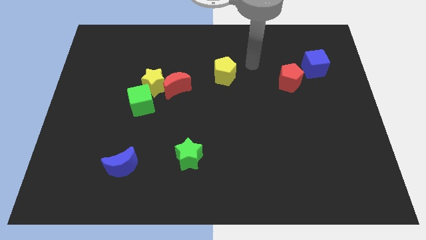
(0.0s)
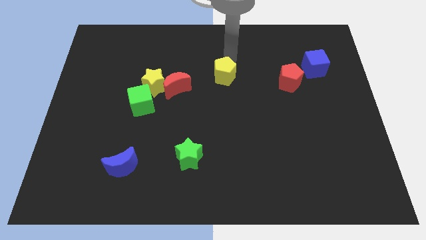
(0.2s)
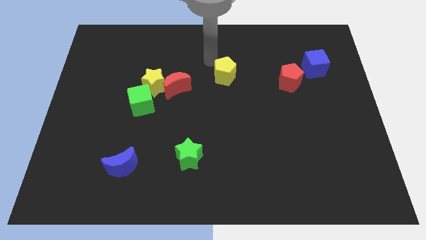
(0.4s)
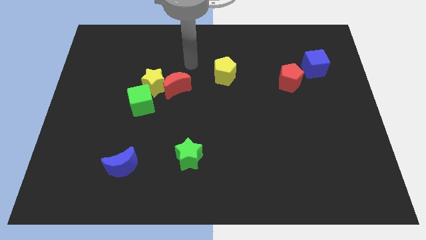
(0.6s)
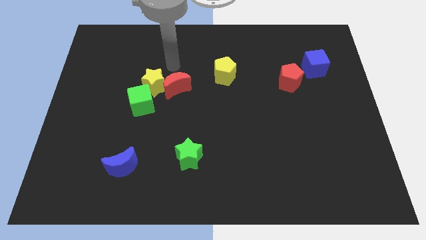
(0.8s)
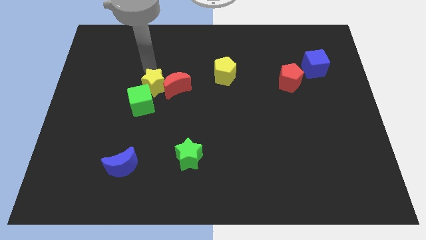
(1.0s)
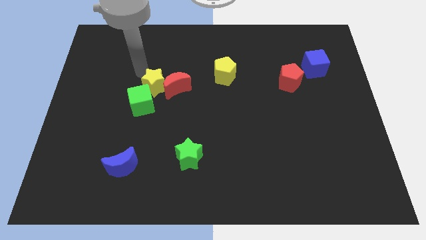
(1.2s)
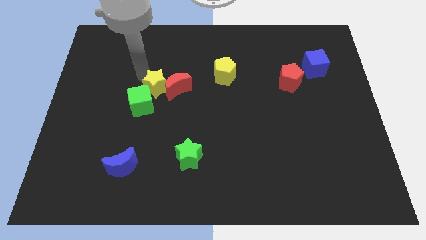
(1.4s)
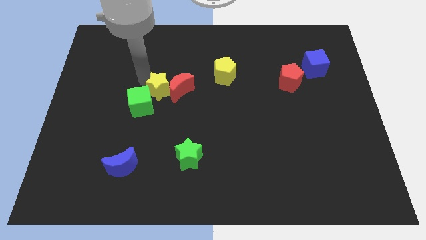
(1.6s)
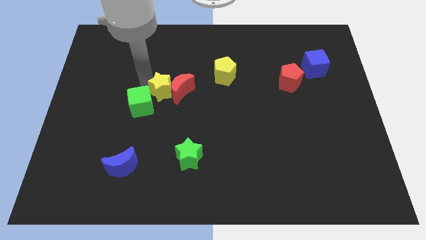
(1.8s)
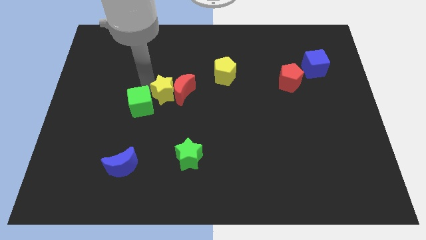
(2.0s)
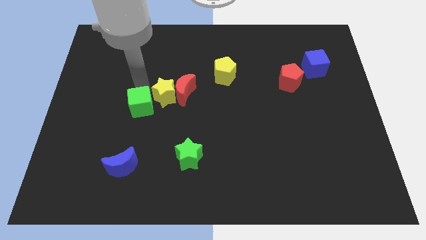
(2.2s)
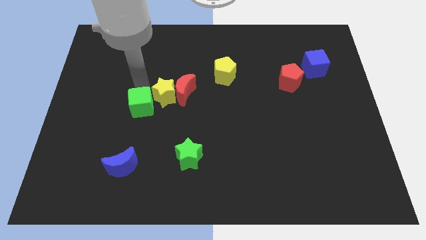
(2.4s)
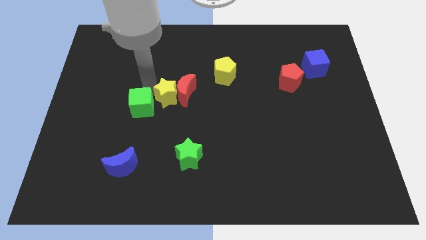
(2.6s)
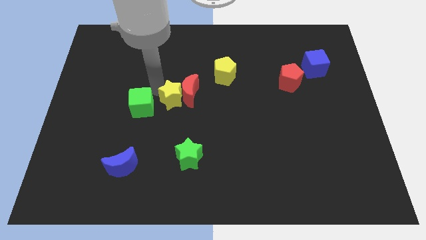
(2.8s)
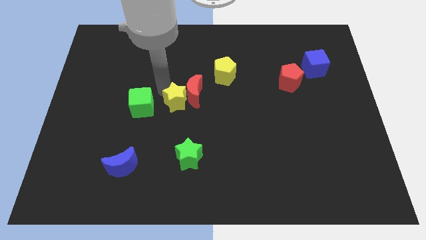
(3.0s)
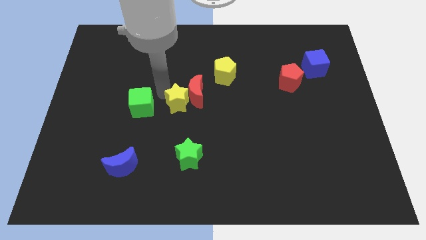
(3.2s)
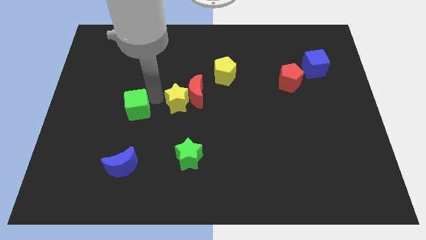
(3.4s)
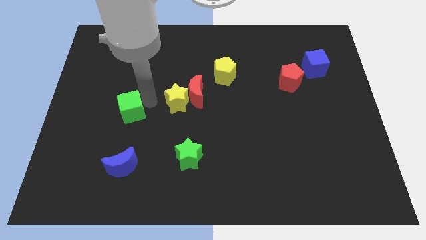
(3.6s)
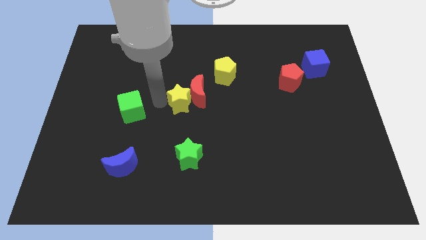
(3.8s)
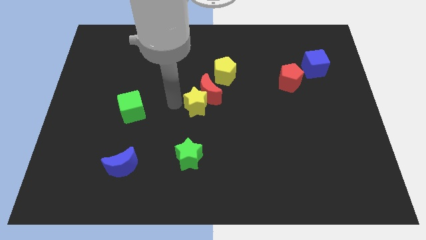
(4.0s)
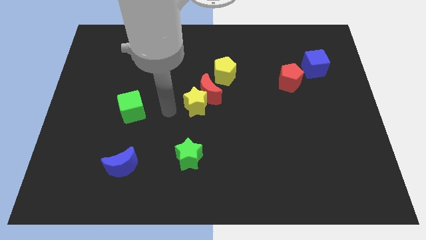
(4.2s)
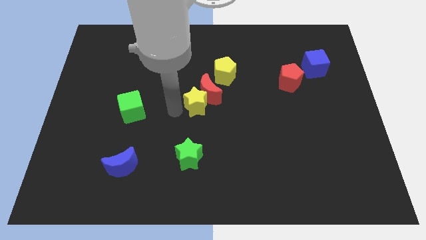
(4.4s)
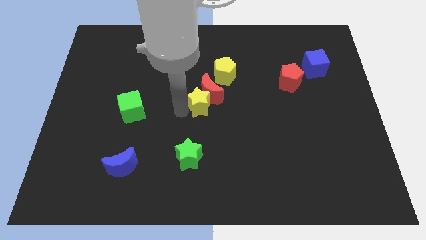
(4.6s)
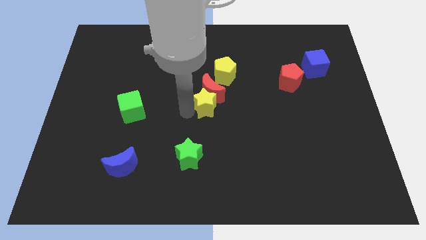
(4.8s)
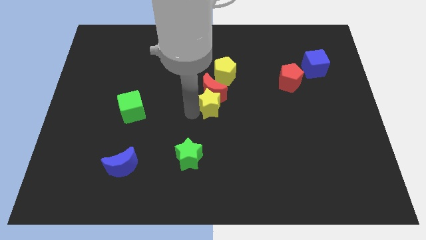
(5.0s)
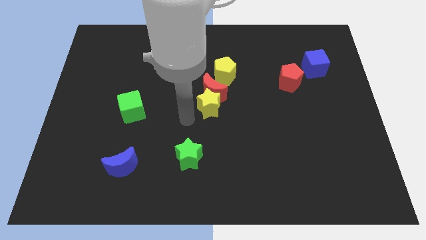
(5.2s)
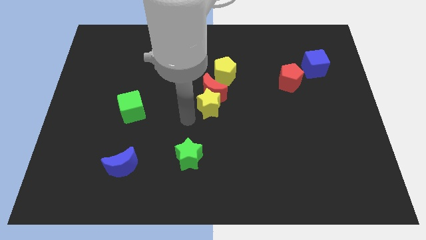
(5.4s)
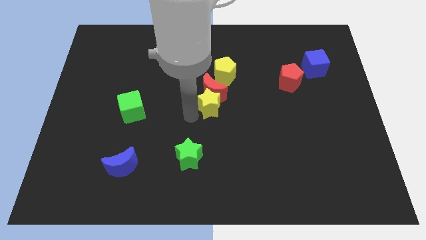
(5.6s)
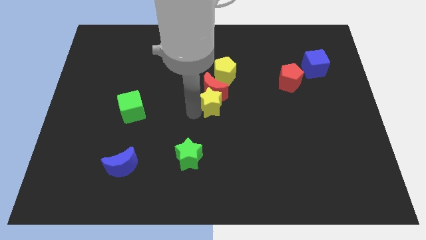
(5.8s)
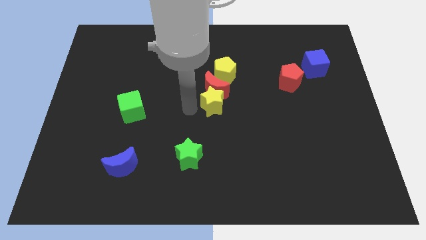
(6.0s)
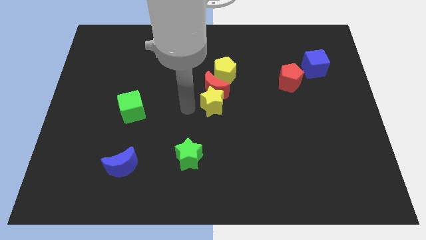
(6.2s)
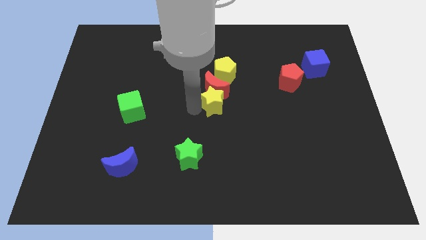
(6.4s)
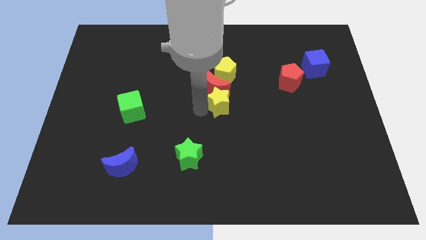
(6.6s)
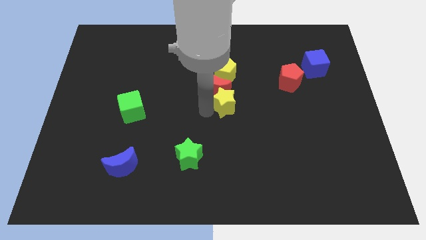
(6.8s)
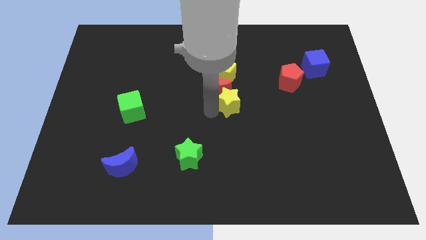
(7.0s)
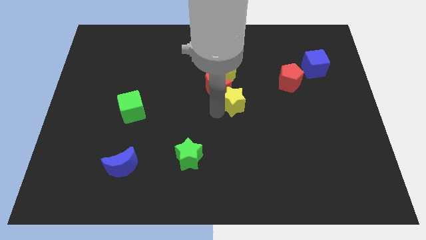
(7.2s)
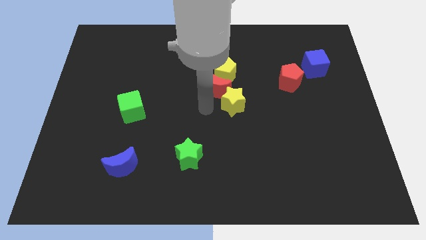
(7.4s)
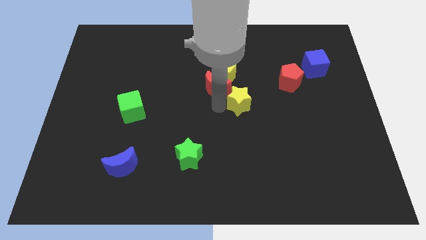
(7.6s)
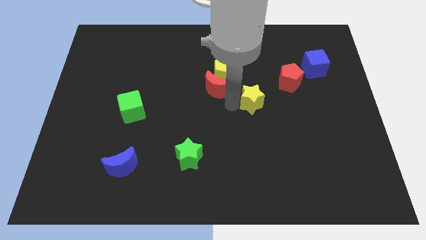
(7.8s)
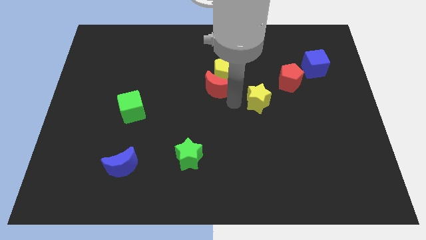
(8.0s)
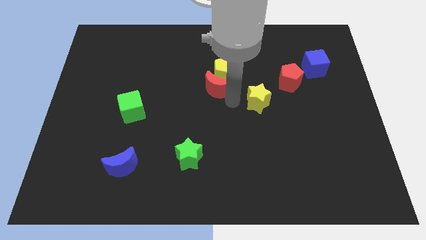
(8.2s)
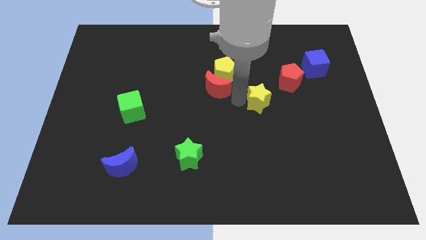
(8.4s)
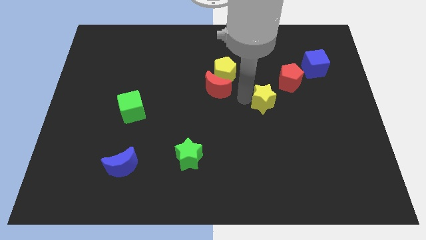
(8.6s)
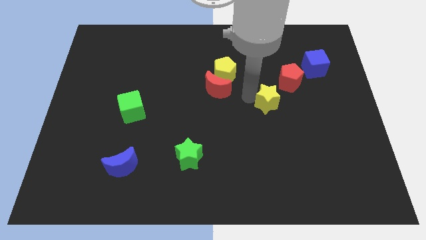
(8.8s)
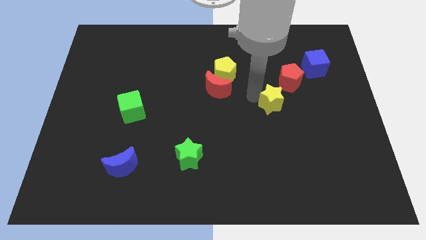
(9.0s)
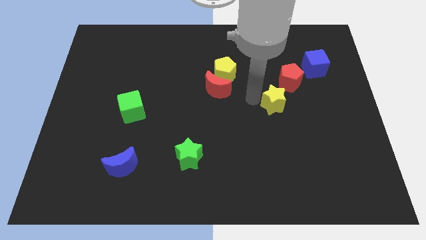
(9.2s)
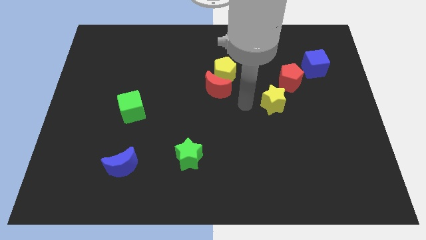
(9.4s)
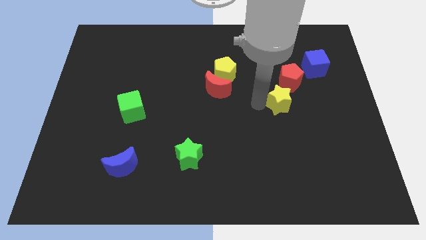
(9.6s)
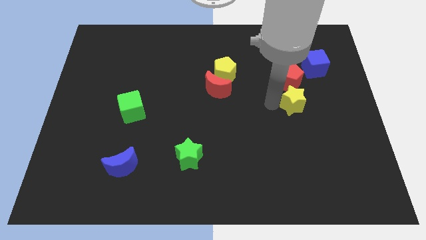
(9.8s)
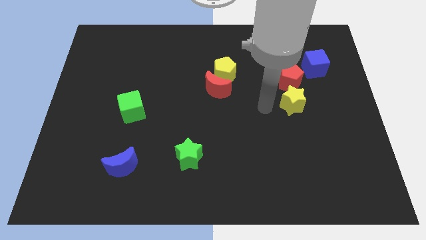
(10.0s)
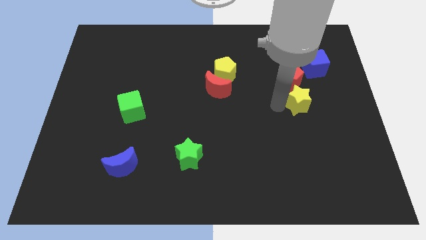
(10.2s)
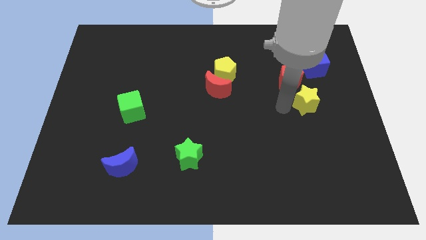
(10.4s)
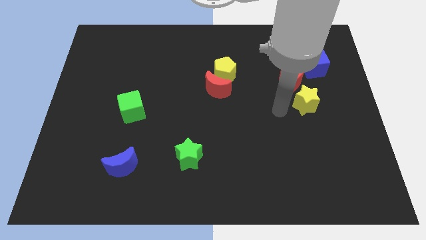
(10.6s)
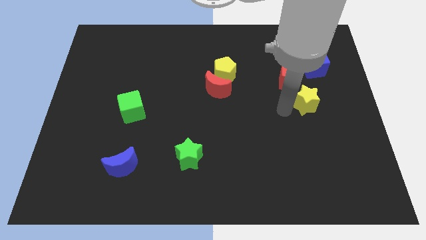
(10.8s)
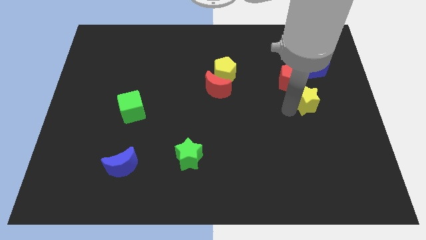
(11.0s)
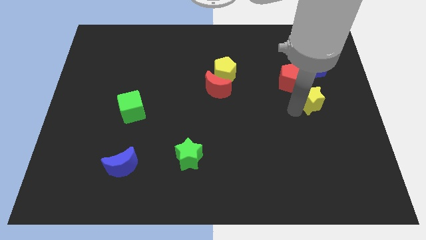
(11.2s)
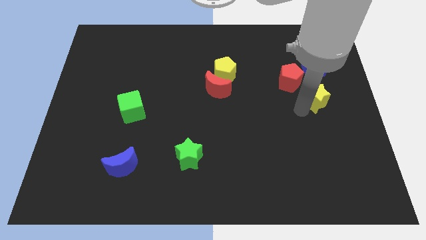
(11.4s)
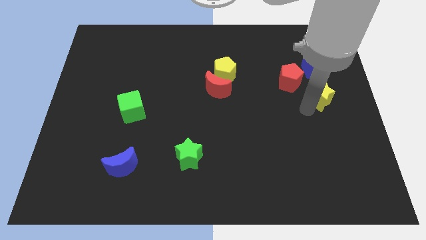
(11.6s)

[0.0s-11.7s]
move the yellow star to the right side
